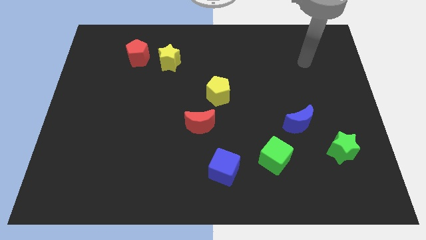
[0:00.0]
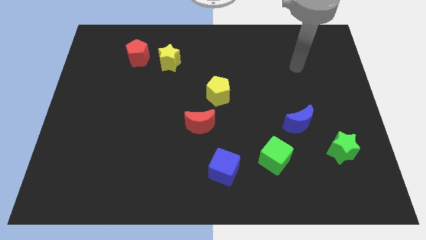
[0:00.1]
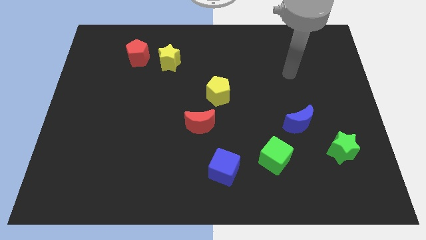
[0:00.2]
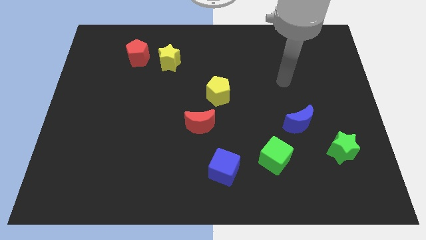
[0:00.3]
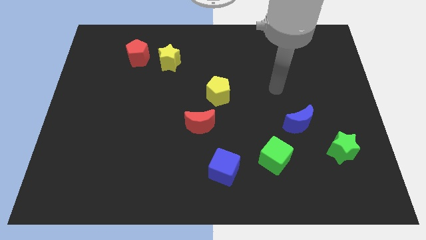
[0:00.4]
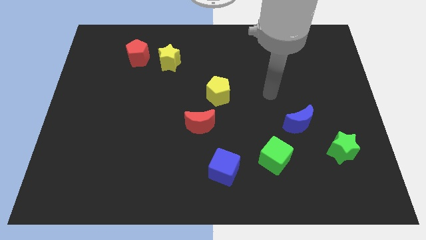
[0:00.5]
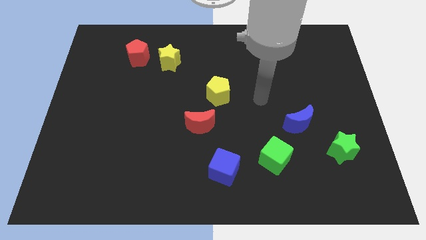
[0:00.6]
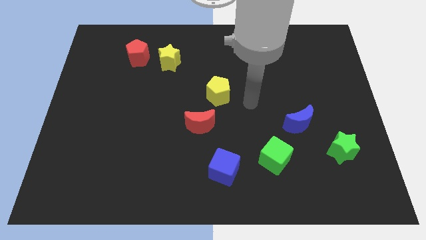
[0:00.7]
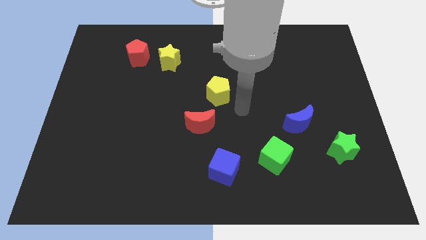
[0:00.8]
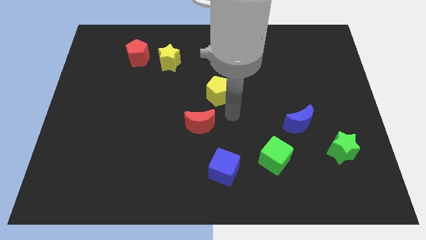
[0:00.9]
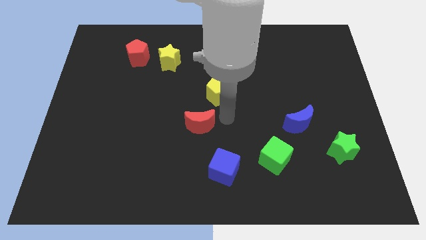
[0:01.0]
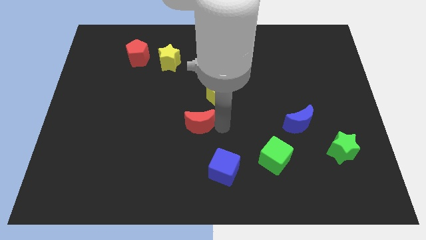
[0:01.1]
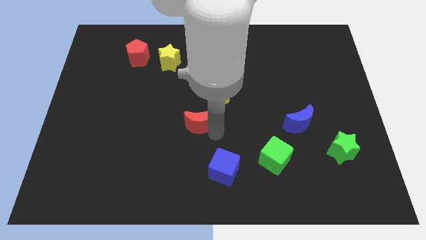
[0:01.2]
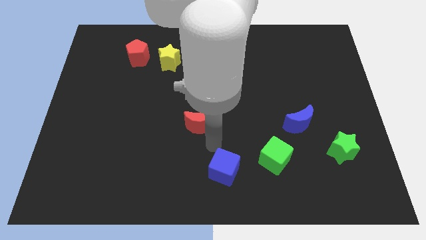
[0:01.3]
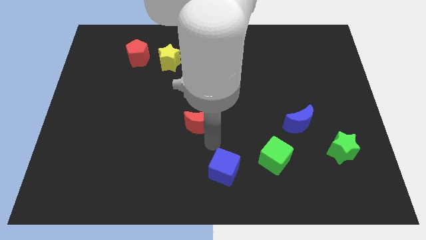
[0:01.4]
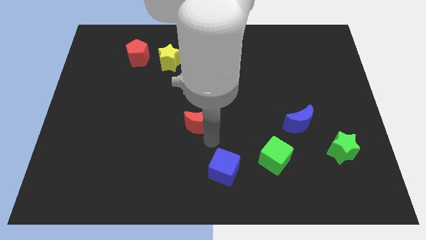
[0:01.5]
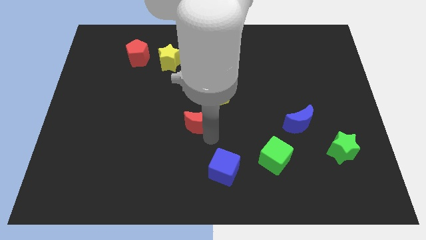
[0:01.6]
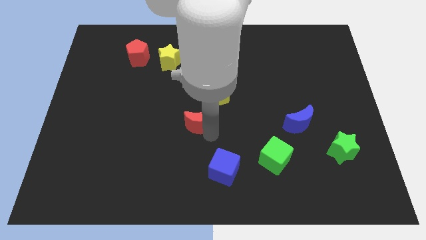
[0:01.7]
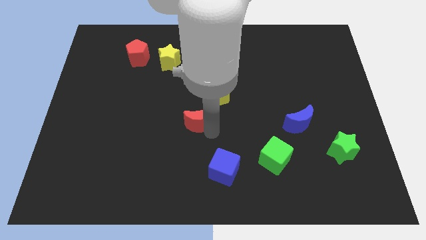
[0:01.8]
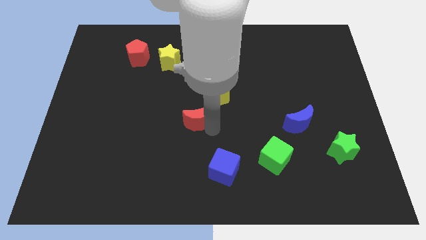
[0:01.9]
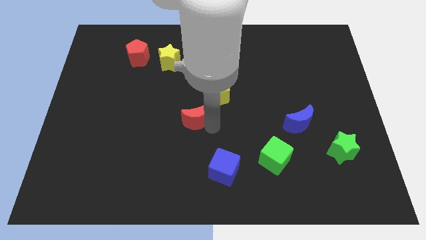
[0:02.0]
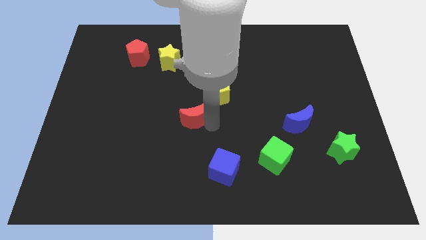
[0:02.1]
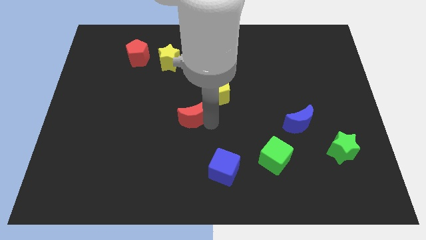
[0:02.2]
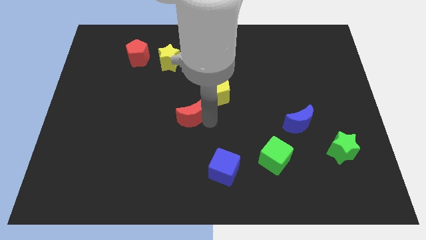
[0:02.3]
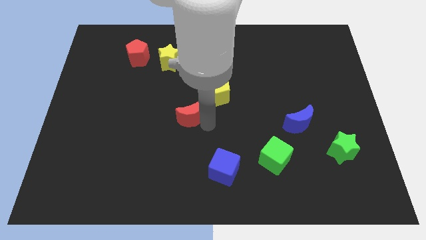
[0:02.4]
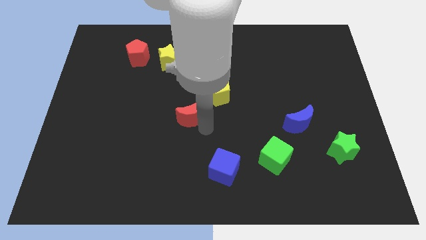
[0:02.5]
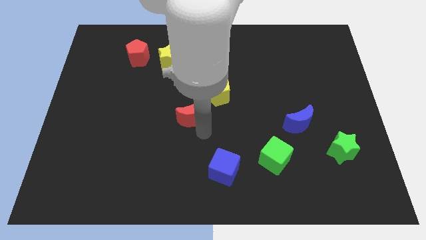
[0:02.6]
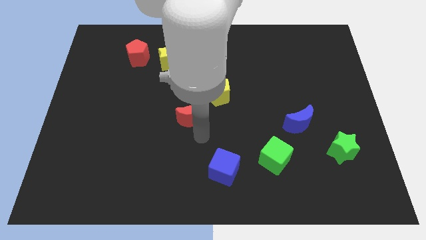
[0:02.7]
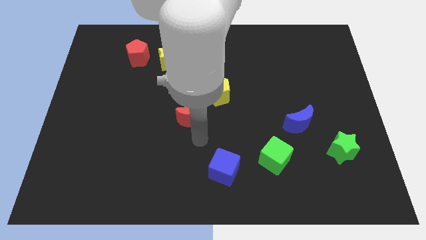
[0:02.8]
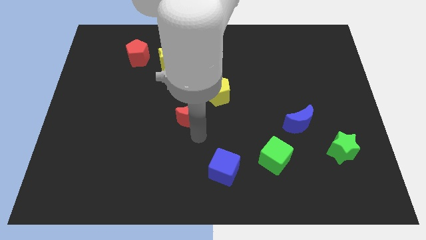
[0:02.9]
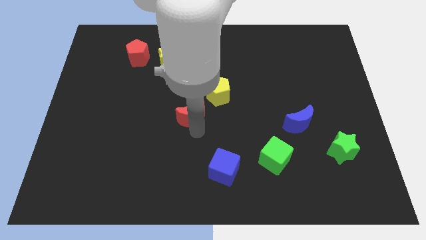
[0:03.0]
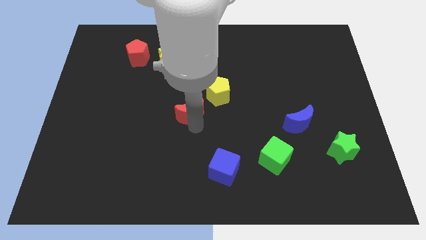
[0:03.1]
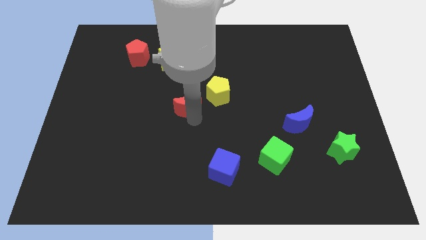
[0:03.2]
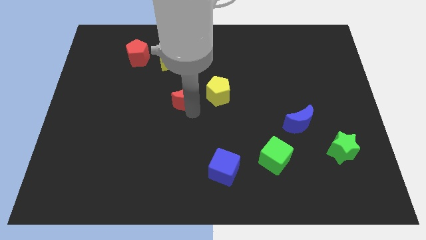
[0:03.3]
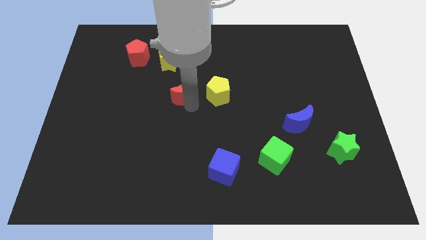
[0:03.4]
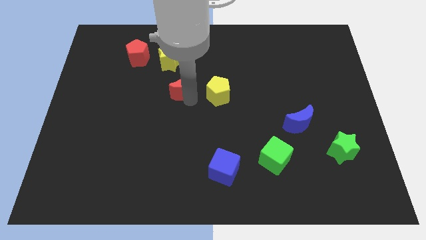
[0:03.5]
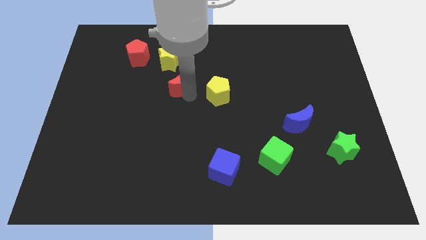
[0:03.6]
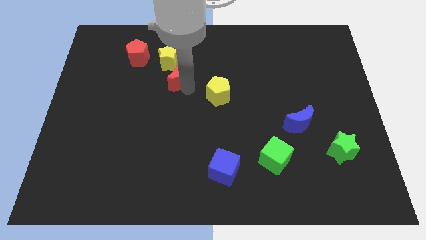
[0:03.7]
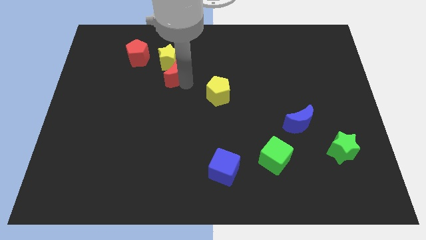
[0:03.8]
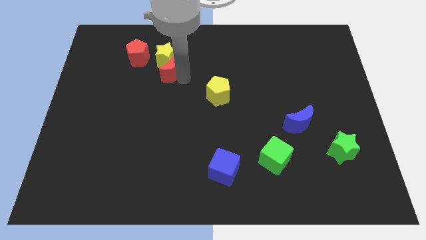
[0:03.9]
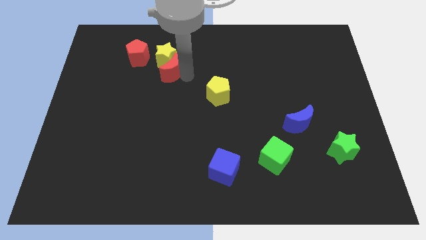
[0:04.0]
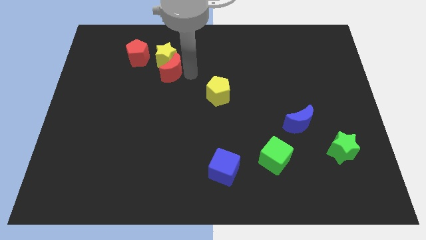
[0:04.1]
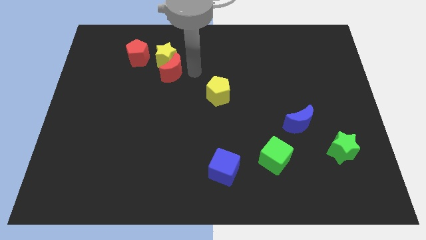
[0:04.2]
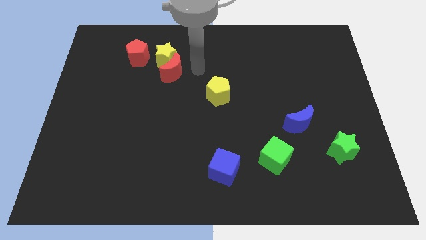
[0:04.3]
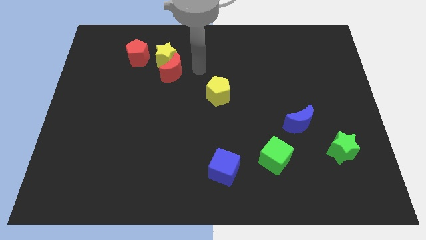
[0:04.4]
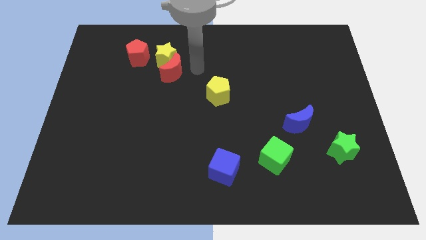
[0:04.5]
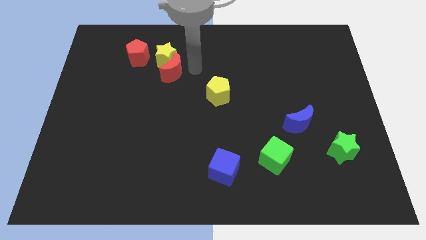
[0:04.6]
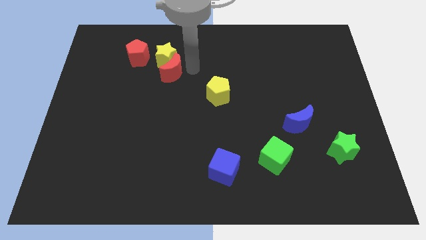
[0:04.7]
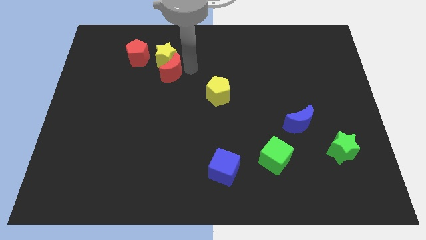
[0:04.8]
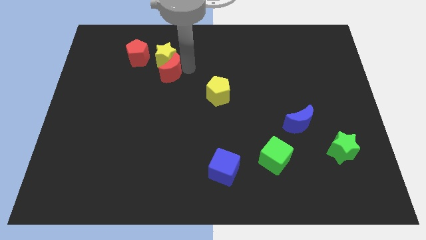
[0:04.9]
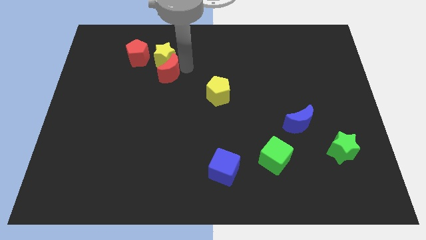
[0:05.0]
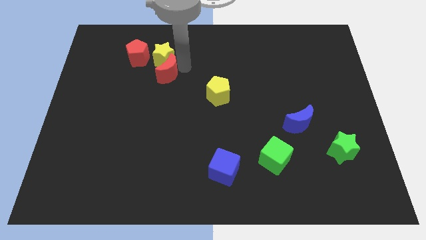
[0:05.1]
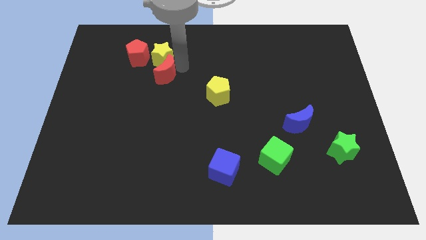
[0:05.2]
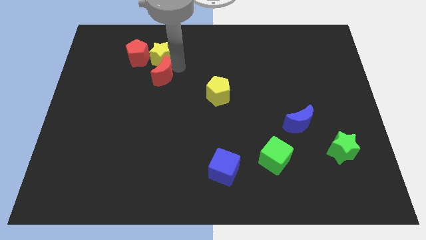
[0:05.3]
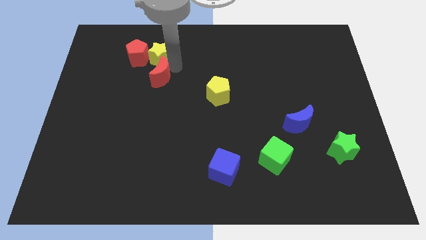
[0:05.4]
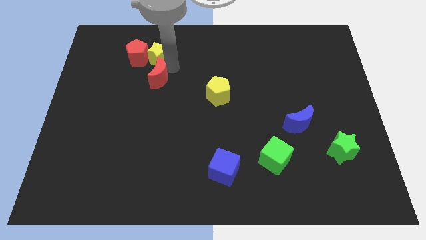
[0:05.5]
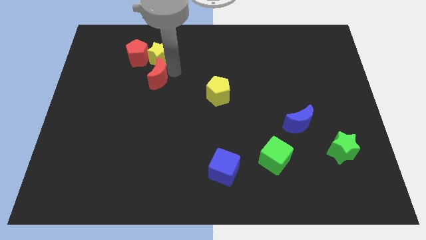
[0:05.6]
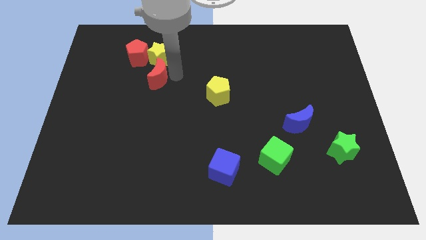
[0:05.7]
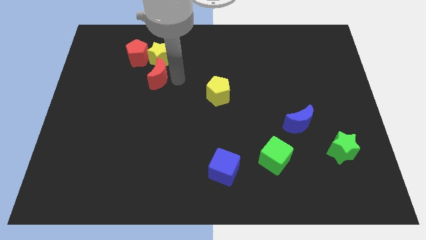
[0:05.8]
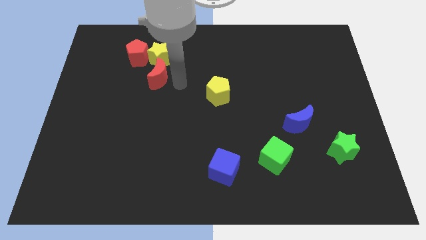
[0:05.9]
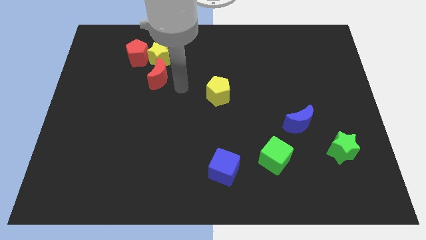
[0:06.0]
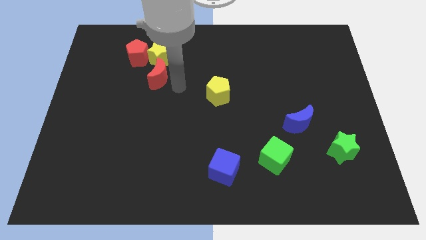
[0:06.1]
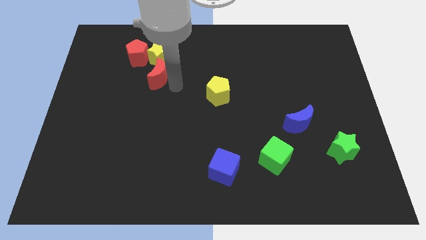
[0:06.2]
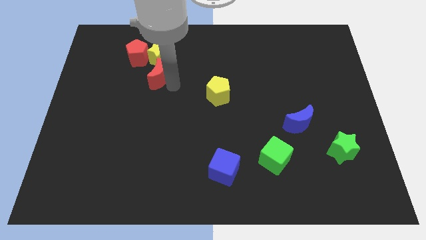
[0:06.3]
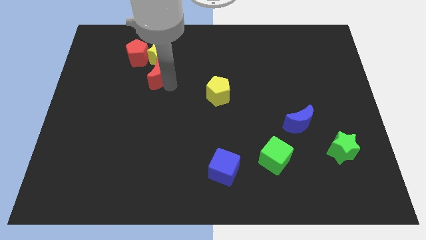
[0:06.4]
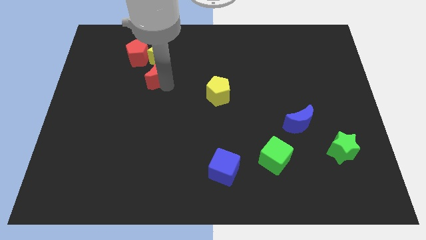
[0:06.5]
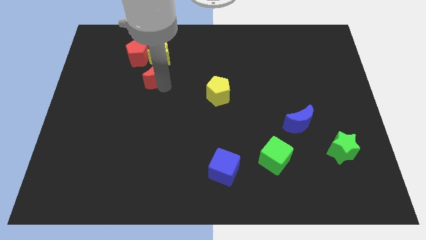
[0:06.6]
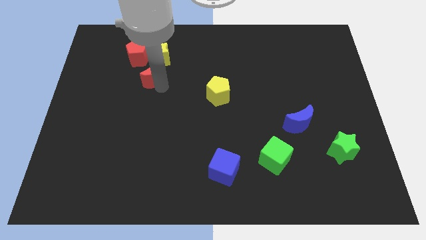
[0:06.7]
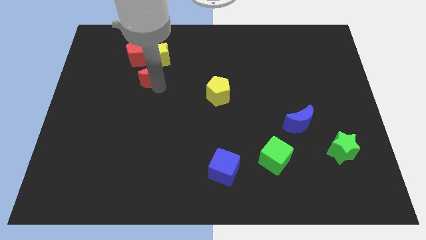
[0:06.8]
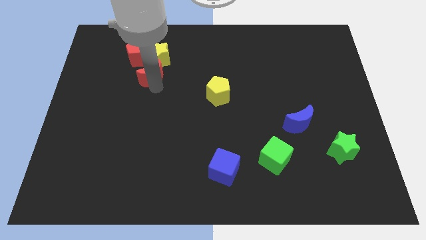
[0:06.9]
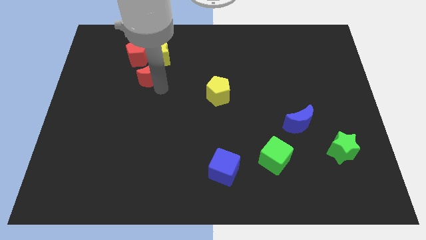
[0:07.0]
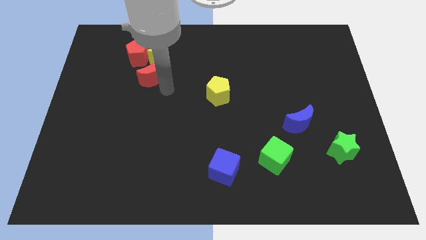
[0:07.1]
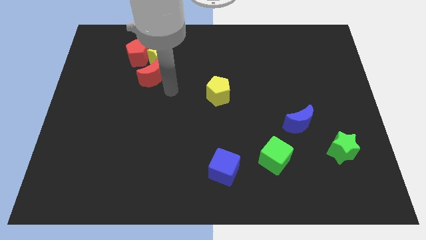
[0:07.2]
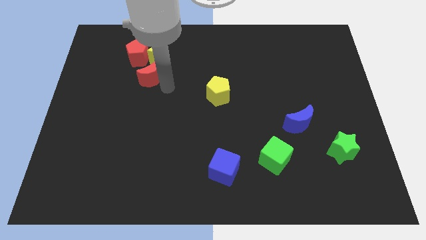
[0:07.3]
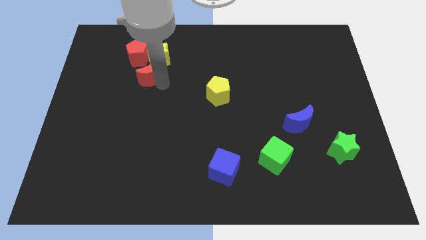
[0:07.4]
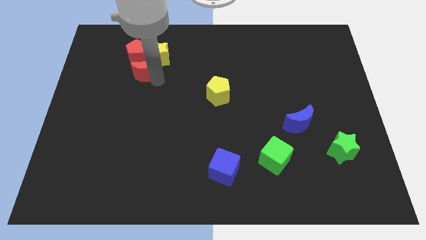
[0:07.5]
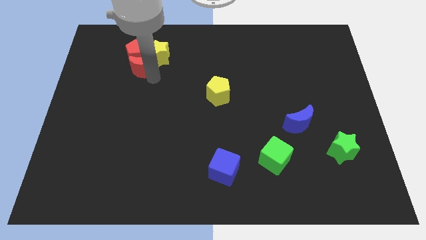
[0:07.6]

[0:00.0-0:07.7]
put the red moon next to the red pentagon
